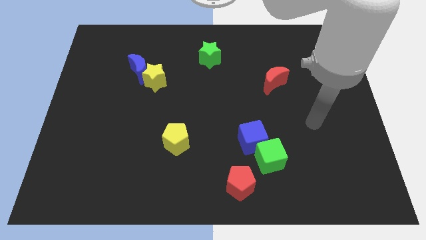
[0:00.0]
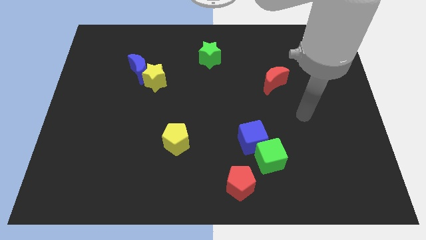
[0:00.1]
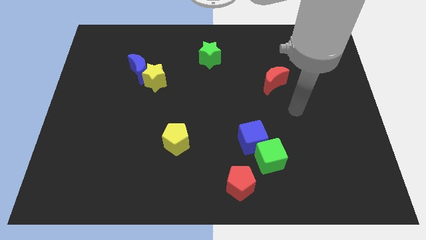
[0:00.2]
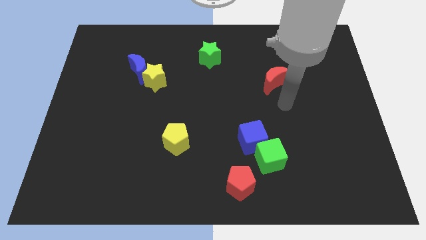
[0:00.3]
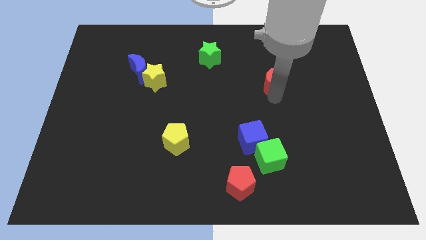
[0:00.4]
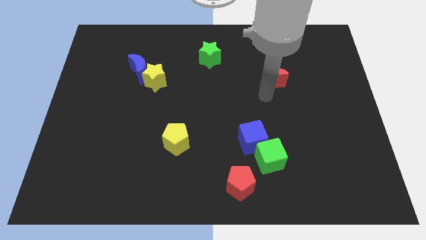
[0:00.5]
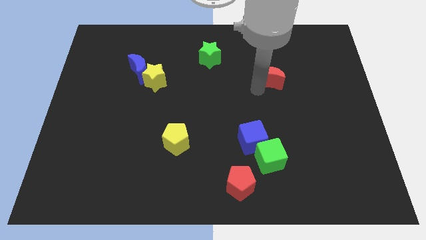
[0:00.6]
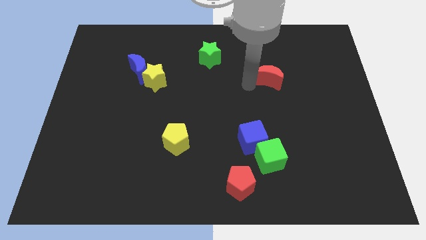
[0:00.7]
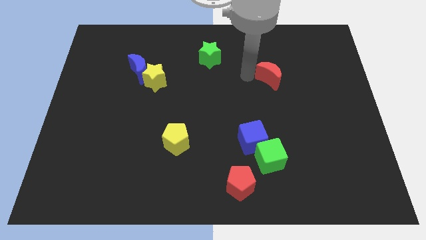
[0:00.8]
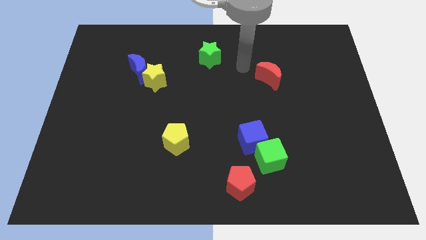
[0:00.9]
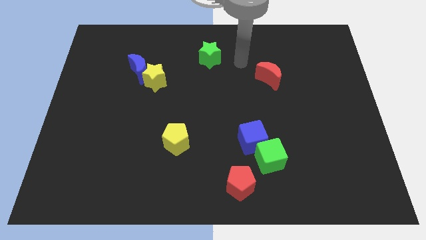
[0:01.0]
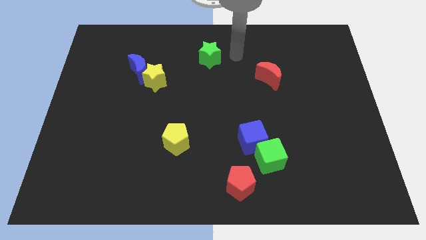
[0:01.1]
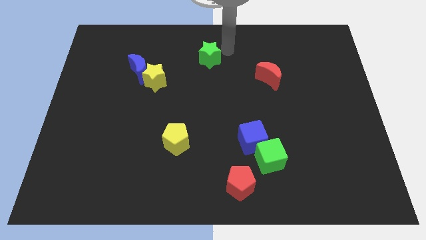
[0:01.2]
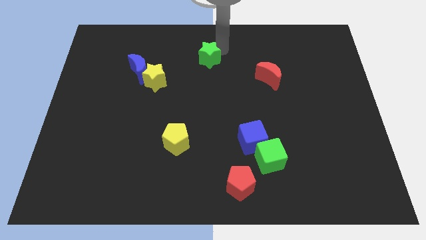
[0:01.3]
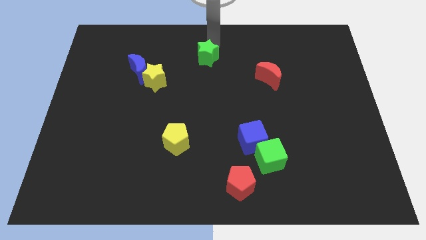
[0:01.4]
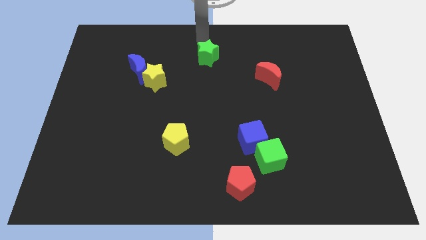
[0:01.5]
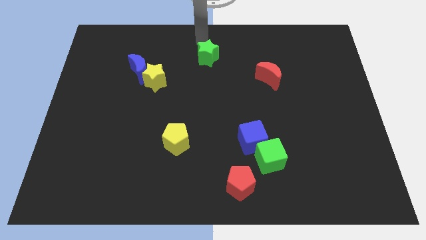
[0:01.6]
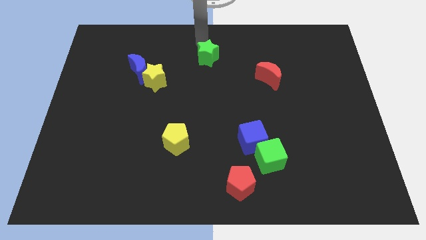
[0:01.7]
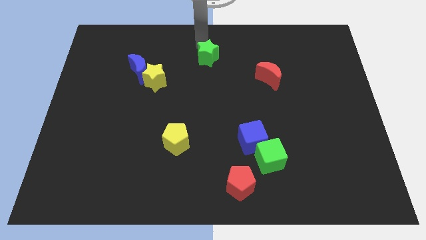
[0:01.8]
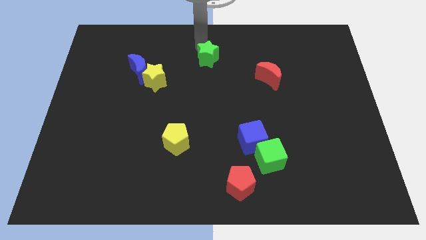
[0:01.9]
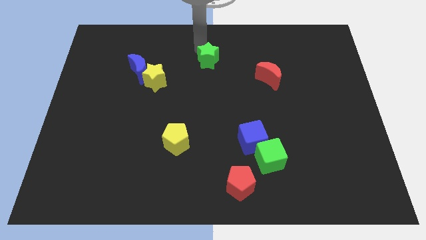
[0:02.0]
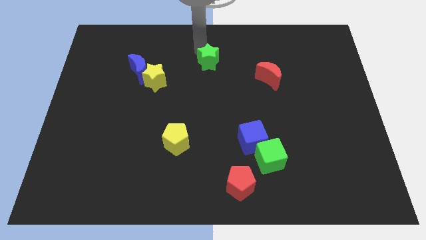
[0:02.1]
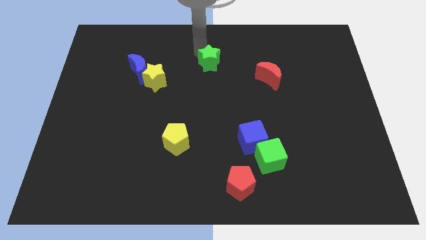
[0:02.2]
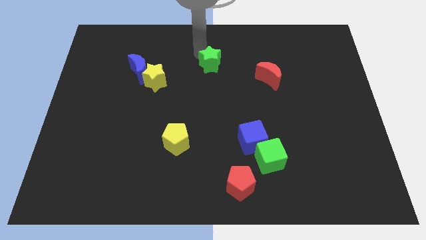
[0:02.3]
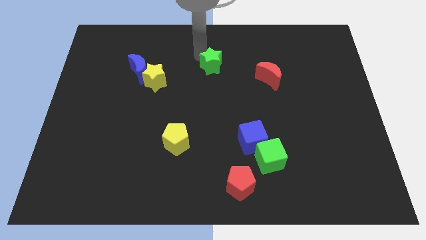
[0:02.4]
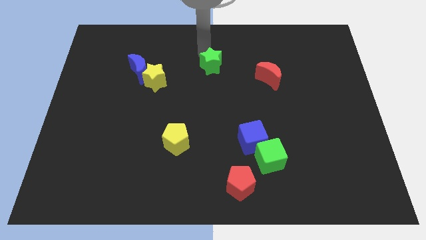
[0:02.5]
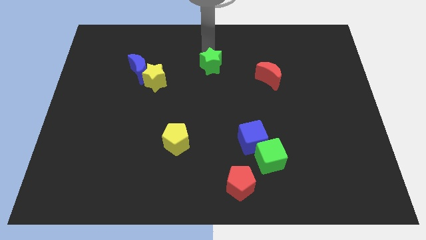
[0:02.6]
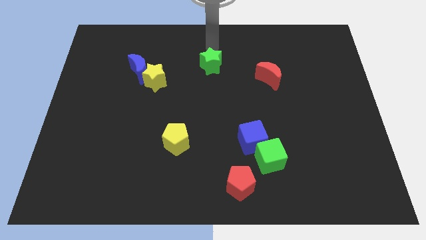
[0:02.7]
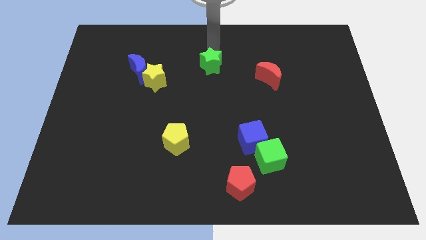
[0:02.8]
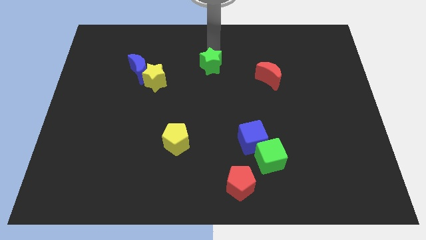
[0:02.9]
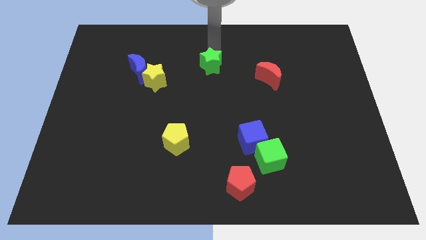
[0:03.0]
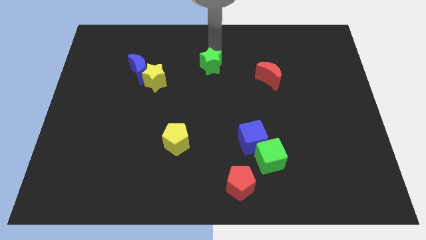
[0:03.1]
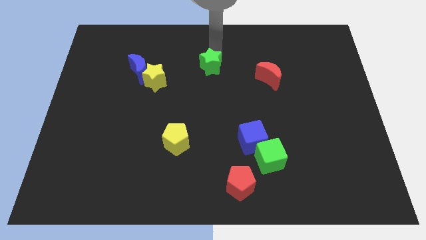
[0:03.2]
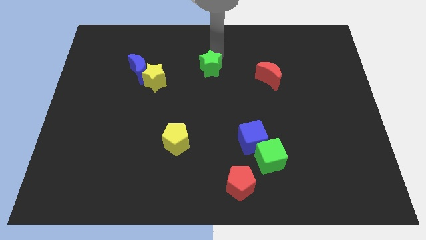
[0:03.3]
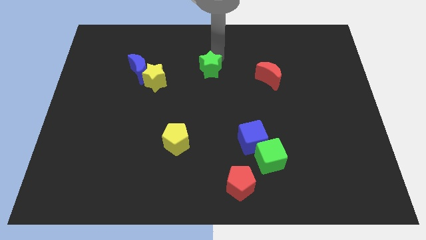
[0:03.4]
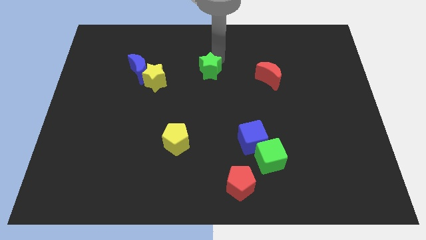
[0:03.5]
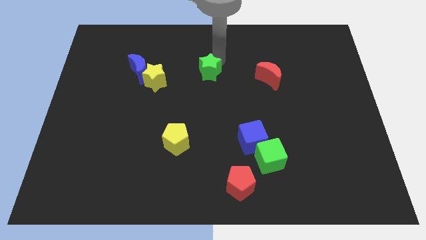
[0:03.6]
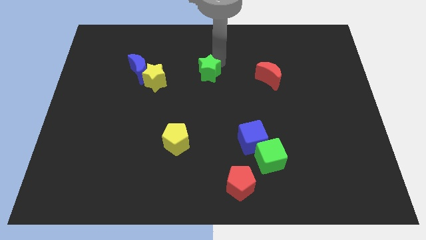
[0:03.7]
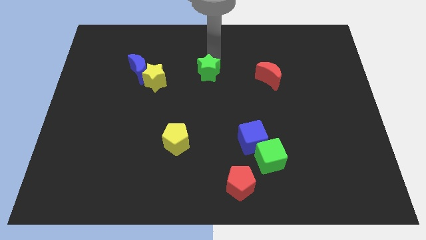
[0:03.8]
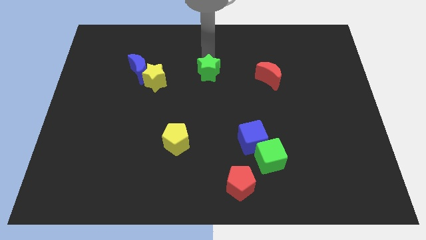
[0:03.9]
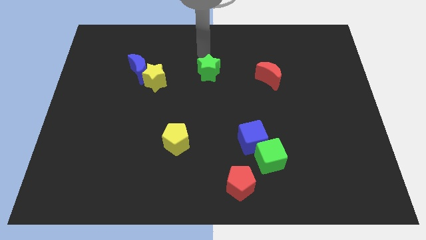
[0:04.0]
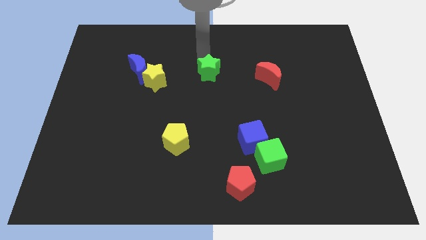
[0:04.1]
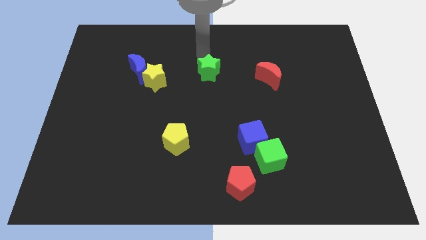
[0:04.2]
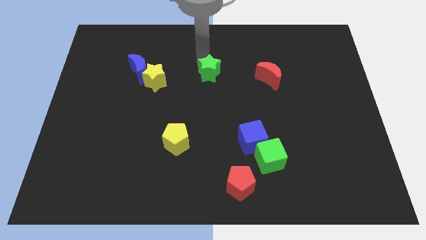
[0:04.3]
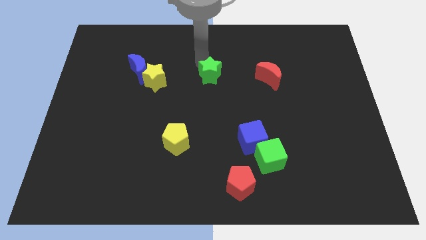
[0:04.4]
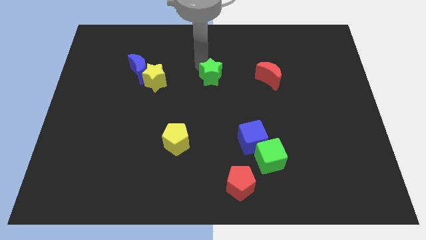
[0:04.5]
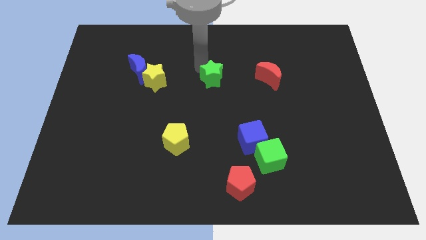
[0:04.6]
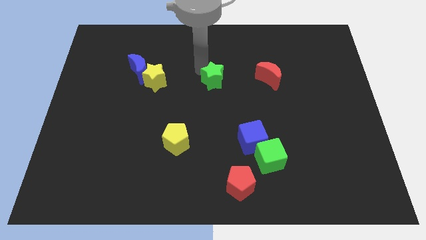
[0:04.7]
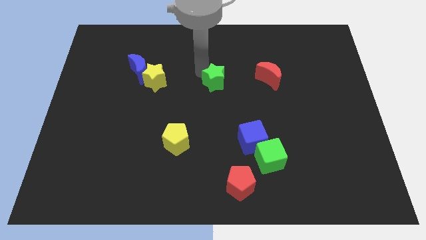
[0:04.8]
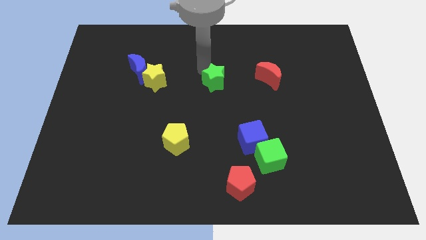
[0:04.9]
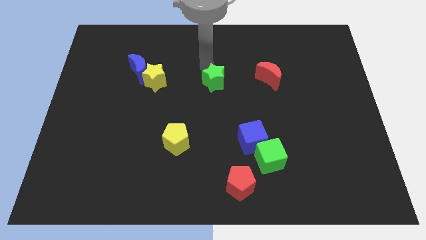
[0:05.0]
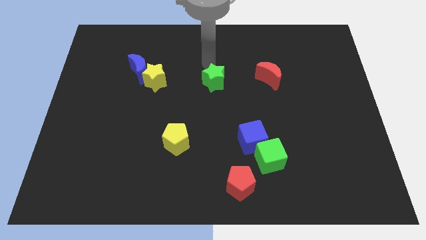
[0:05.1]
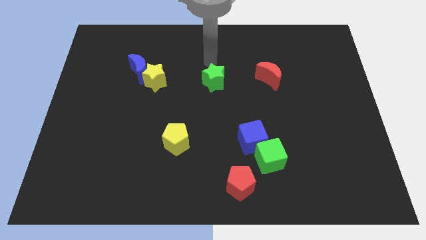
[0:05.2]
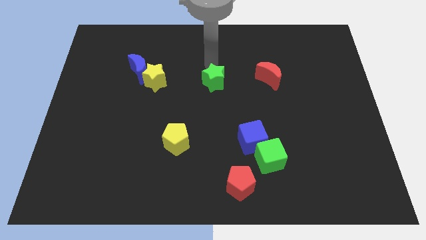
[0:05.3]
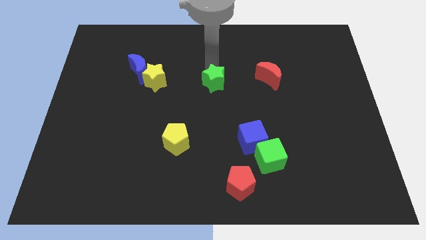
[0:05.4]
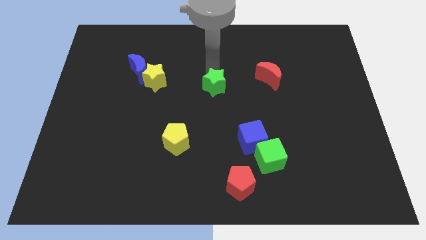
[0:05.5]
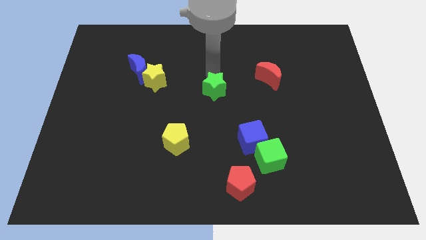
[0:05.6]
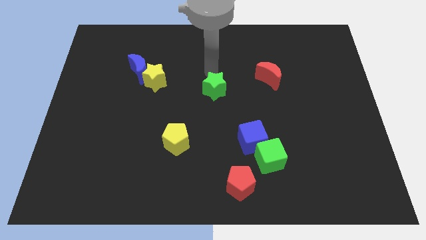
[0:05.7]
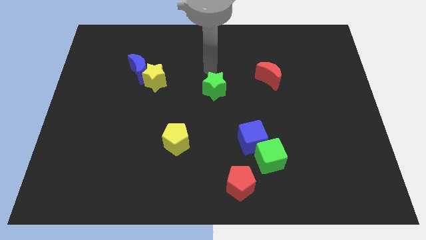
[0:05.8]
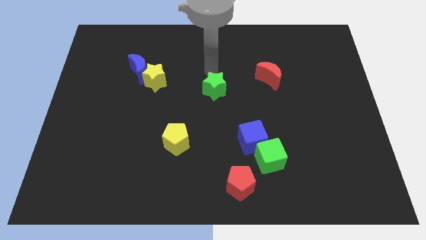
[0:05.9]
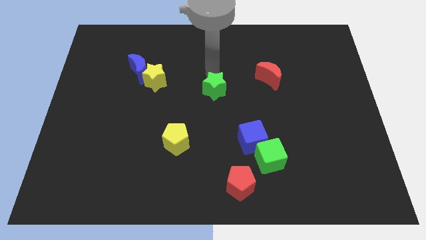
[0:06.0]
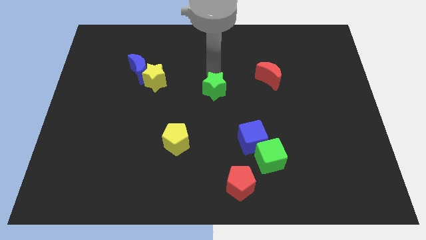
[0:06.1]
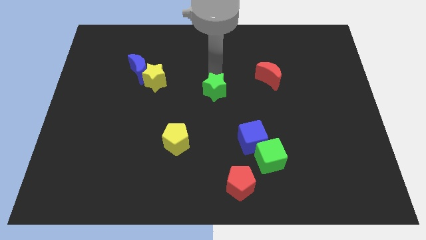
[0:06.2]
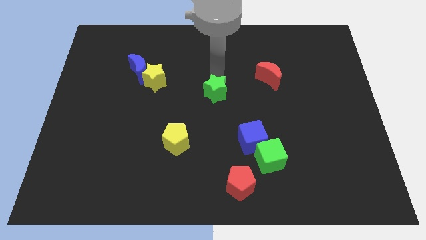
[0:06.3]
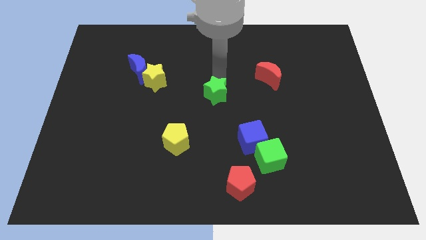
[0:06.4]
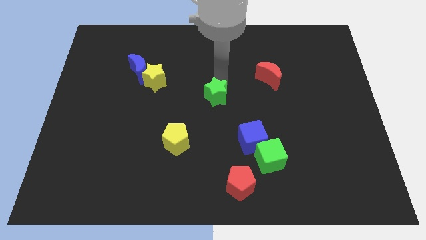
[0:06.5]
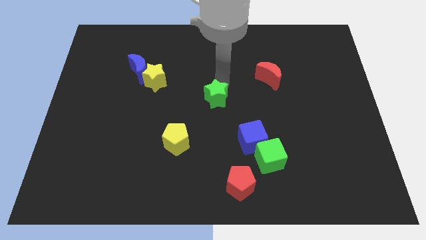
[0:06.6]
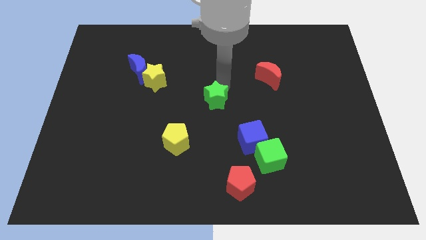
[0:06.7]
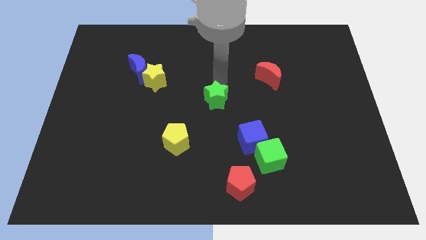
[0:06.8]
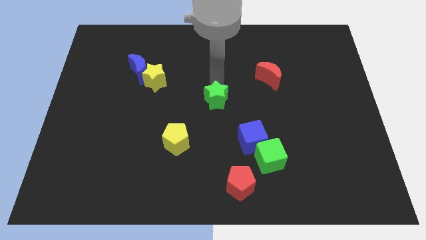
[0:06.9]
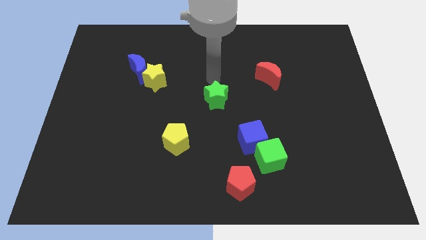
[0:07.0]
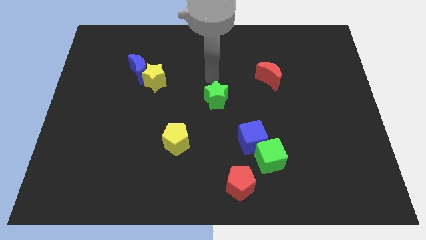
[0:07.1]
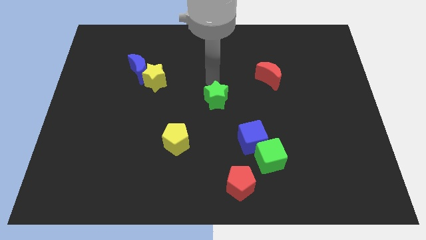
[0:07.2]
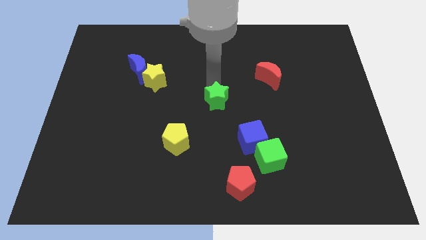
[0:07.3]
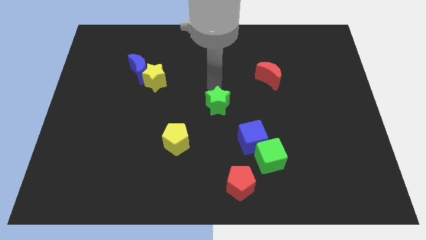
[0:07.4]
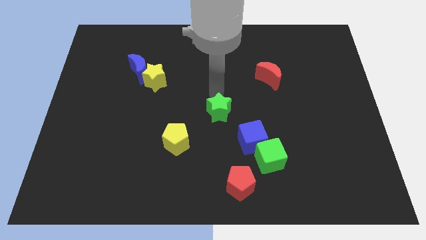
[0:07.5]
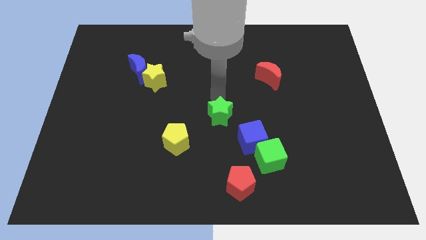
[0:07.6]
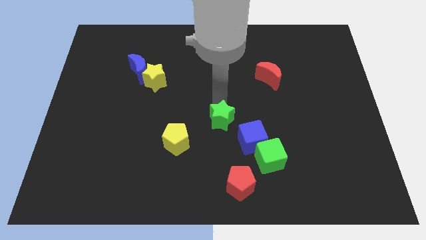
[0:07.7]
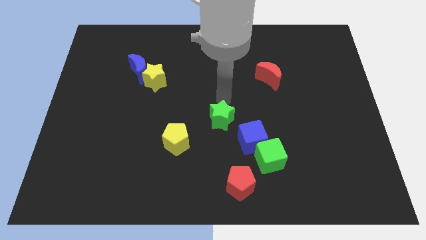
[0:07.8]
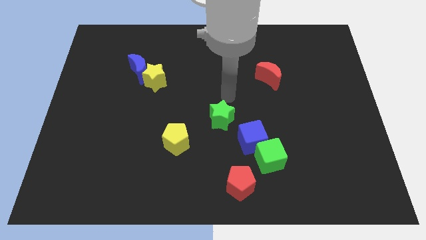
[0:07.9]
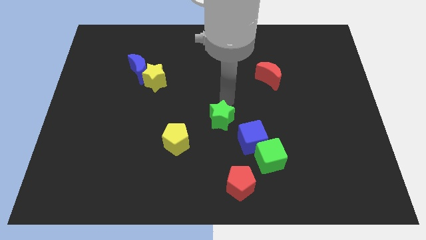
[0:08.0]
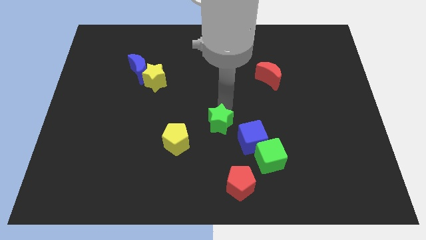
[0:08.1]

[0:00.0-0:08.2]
move the green star downwards

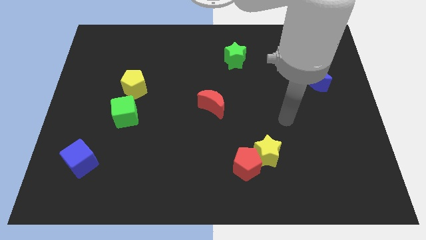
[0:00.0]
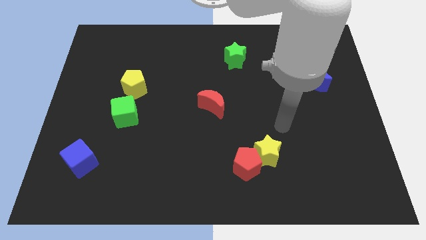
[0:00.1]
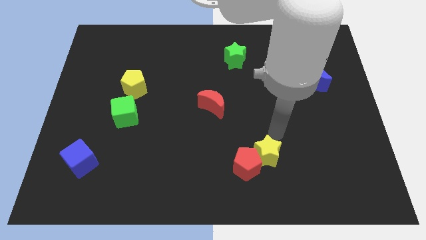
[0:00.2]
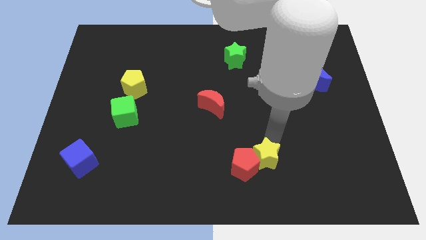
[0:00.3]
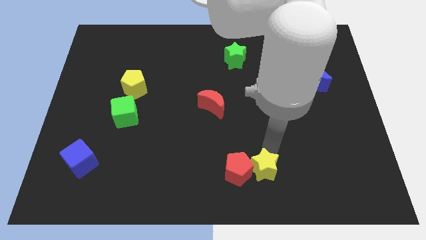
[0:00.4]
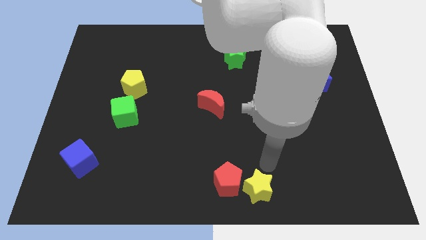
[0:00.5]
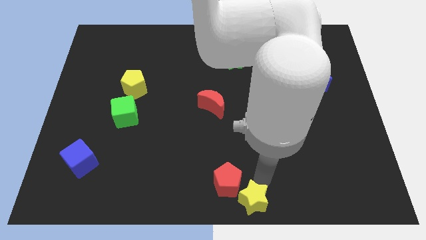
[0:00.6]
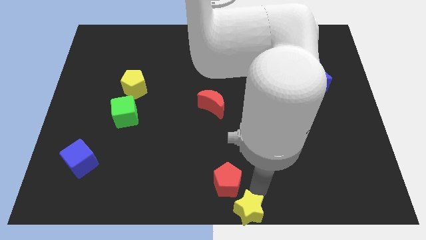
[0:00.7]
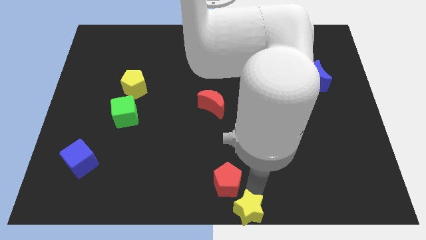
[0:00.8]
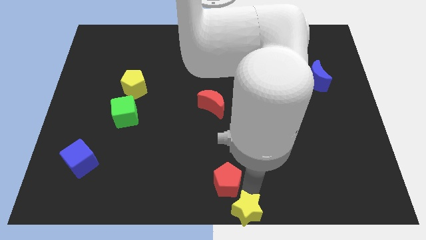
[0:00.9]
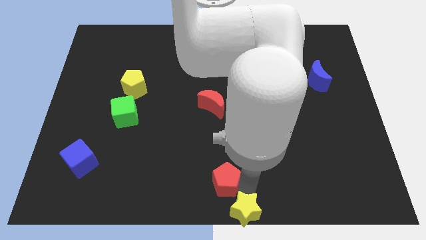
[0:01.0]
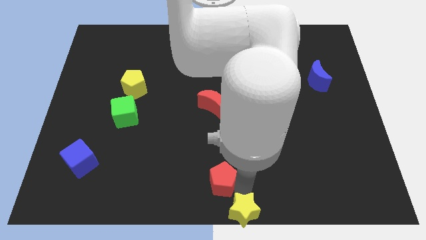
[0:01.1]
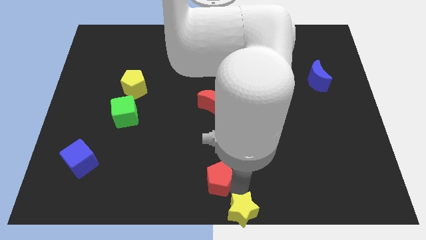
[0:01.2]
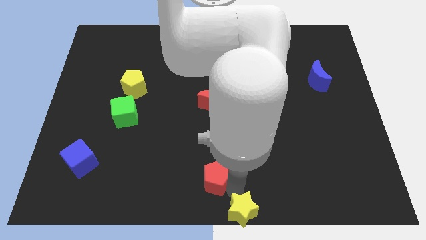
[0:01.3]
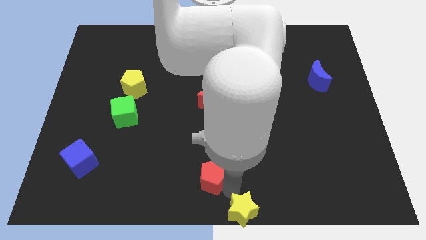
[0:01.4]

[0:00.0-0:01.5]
push the red pentagon a bit left
